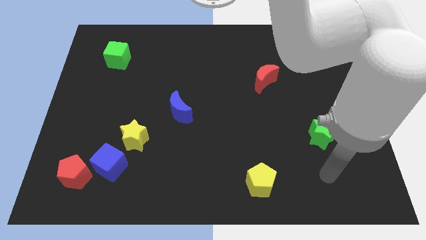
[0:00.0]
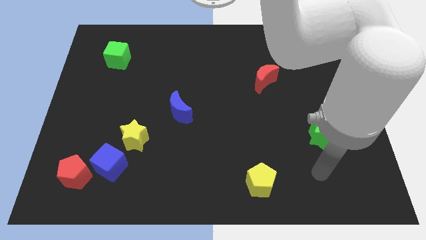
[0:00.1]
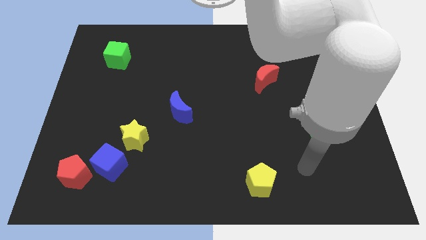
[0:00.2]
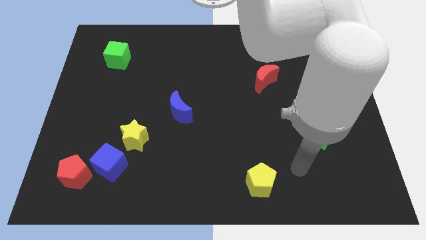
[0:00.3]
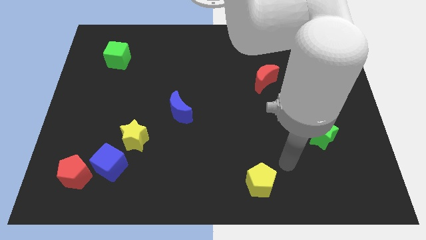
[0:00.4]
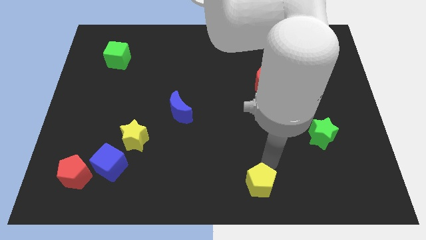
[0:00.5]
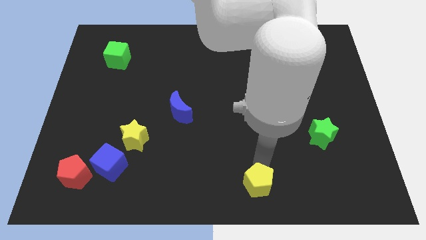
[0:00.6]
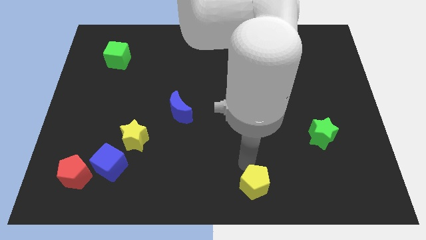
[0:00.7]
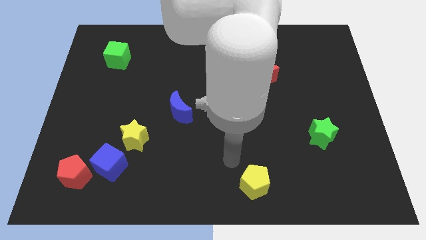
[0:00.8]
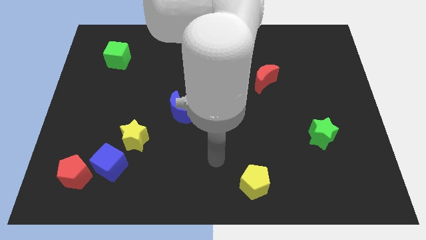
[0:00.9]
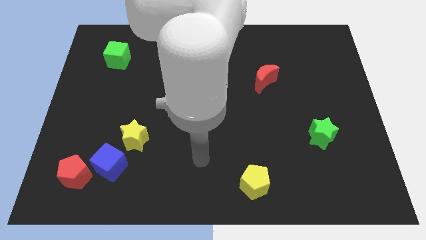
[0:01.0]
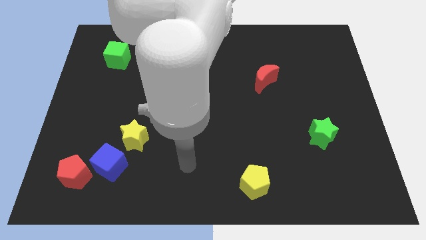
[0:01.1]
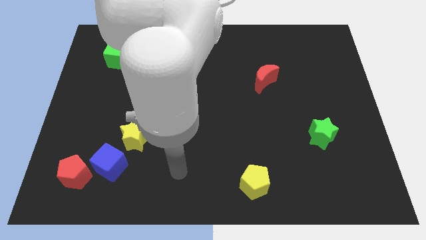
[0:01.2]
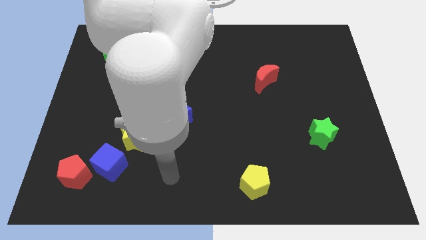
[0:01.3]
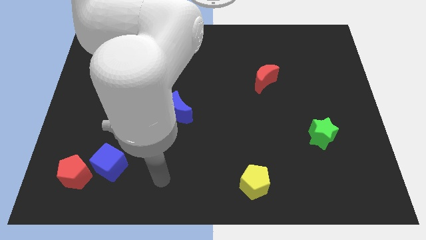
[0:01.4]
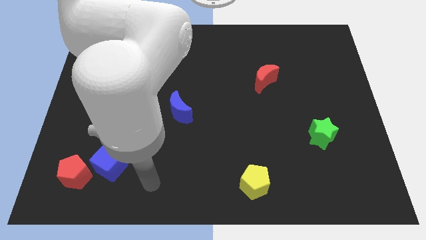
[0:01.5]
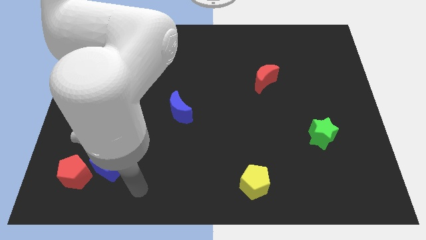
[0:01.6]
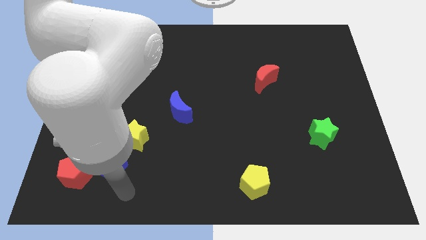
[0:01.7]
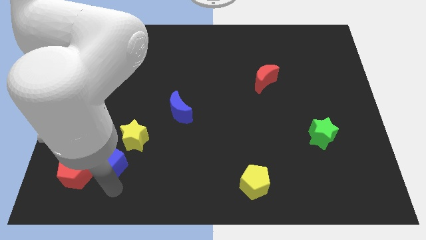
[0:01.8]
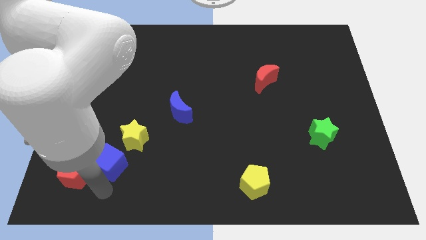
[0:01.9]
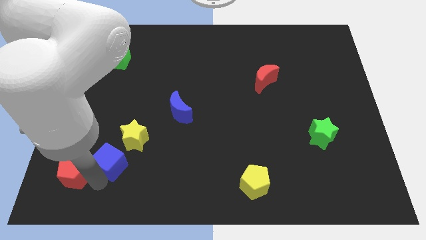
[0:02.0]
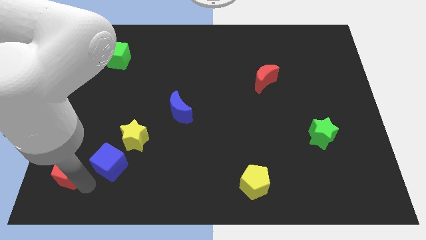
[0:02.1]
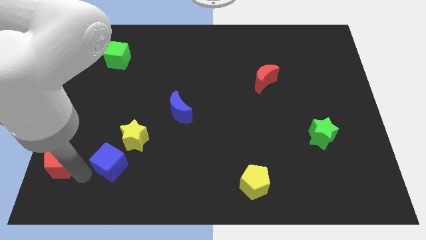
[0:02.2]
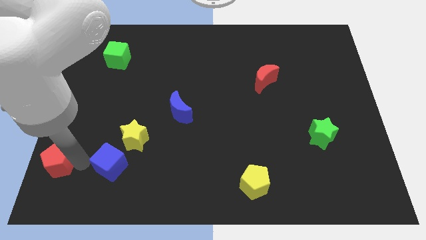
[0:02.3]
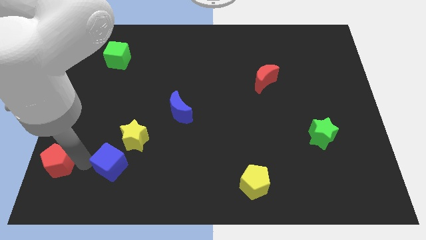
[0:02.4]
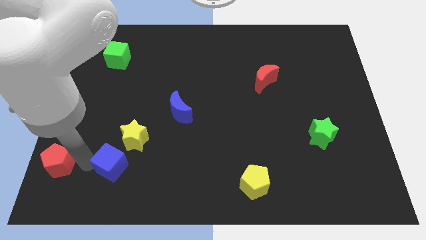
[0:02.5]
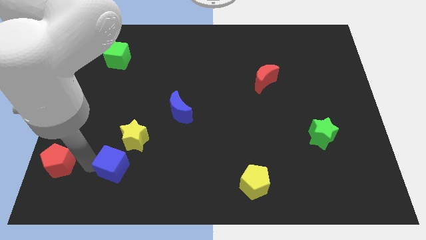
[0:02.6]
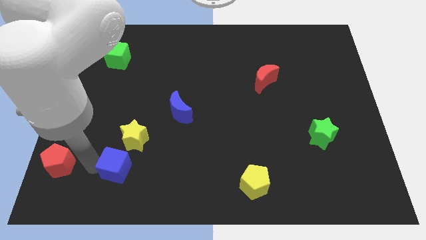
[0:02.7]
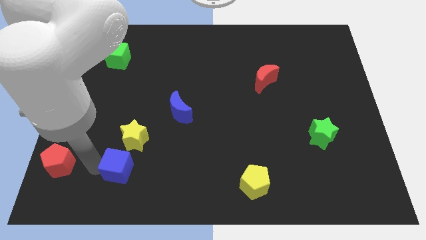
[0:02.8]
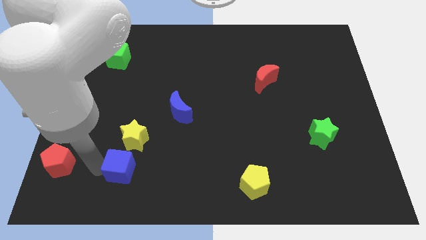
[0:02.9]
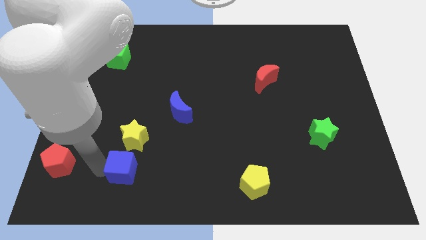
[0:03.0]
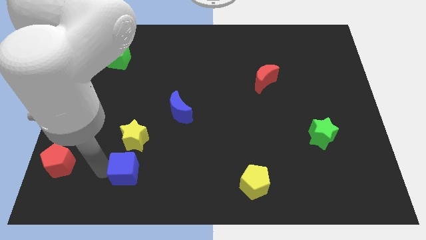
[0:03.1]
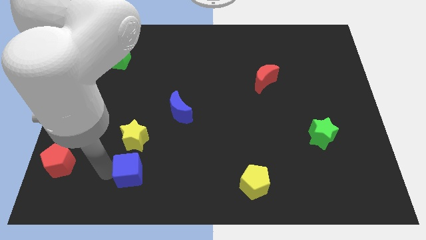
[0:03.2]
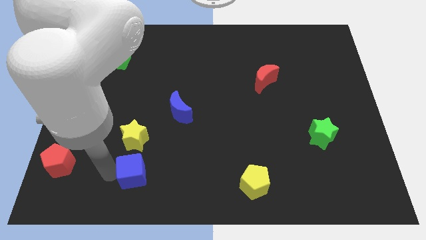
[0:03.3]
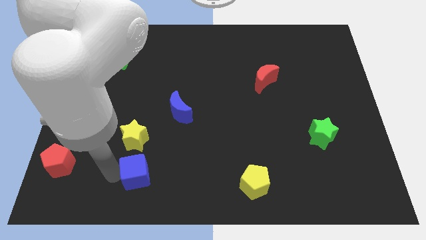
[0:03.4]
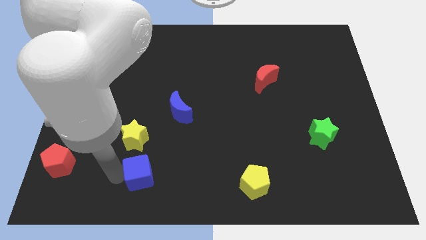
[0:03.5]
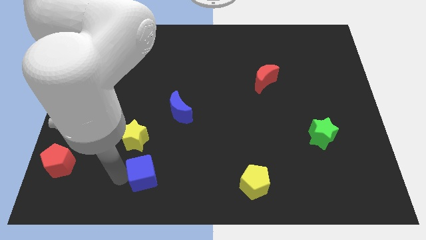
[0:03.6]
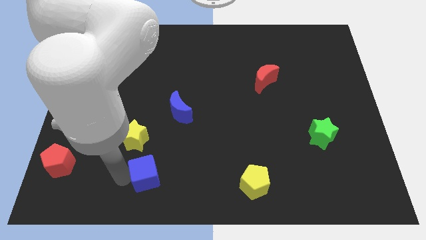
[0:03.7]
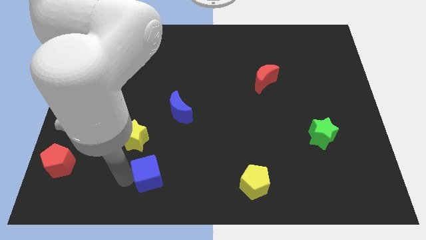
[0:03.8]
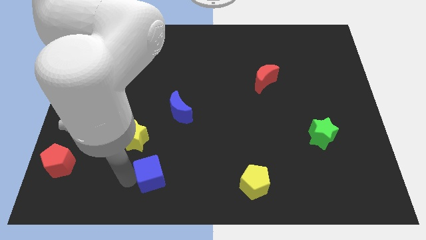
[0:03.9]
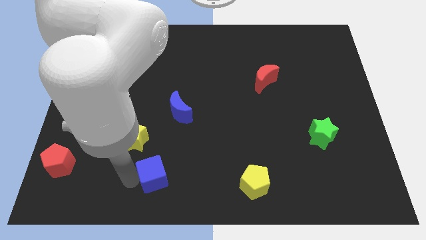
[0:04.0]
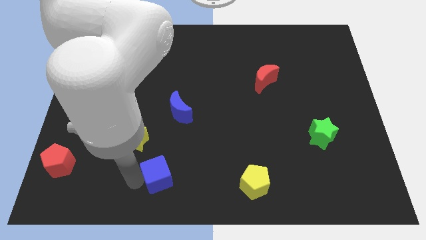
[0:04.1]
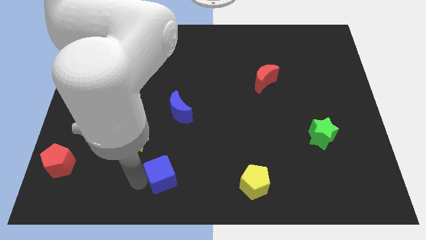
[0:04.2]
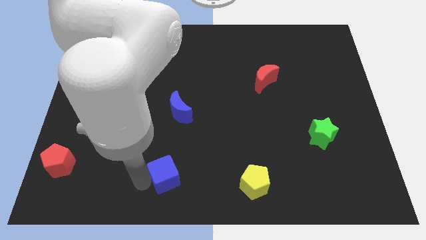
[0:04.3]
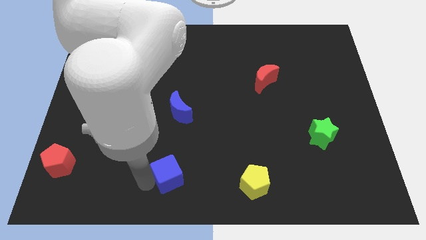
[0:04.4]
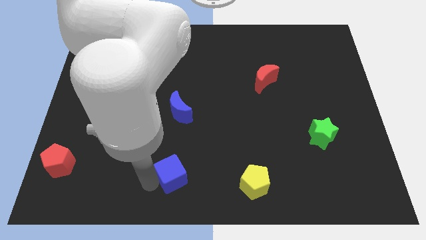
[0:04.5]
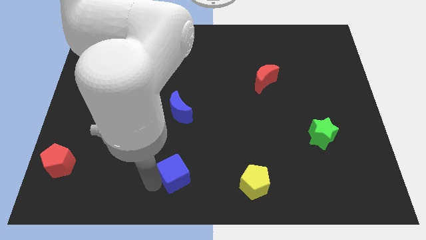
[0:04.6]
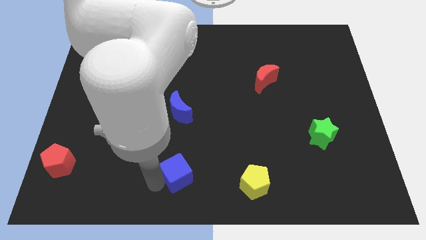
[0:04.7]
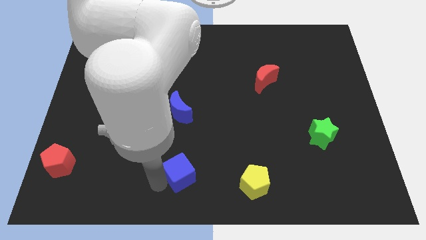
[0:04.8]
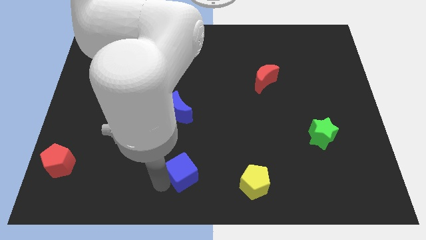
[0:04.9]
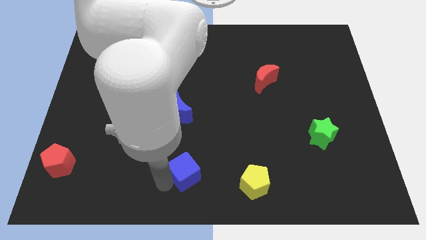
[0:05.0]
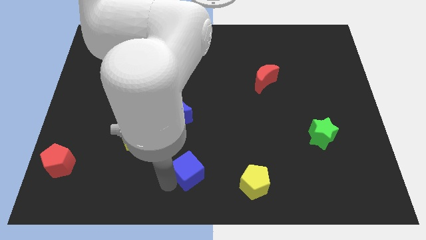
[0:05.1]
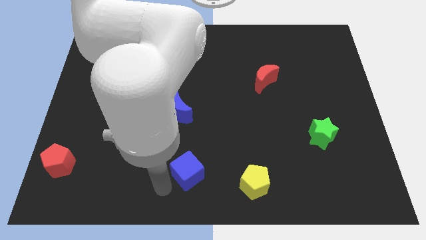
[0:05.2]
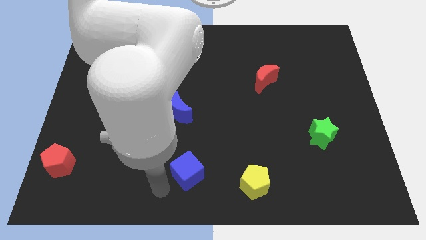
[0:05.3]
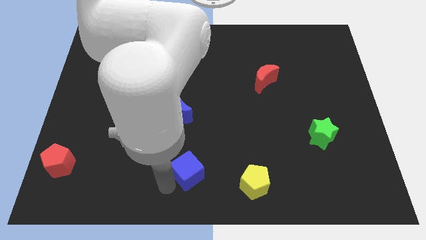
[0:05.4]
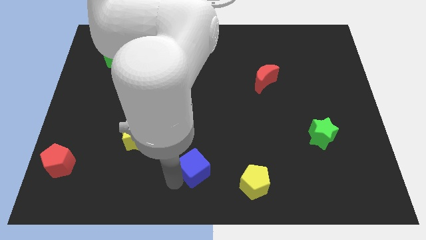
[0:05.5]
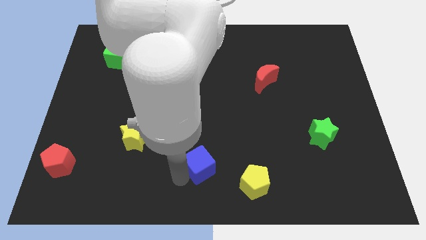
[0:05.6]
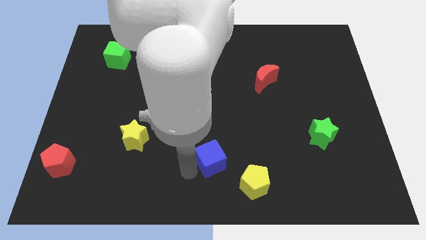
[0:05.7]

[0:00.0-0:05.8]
push the blue cube to the right

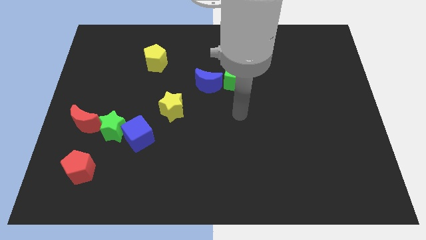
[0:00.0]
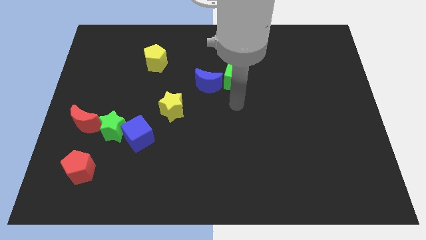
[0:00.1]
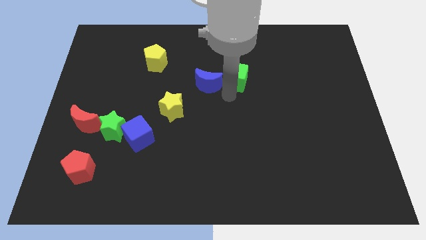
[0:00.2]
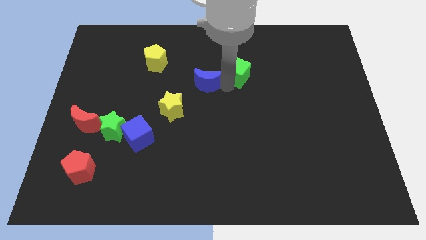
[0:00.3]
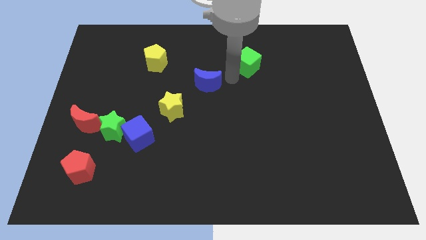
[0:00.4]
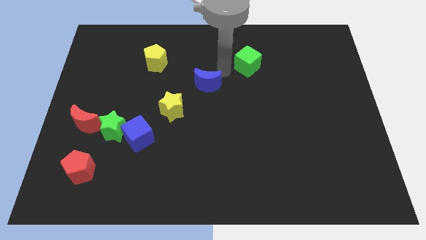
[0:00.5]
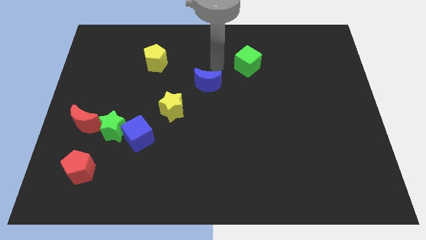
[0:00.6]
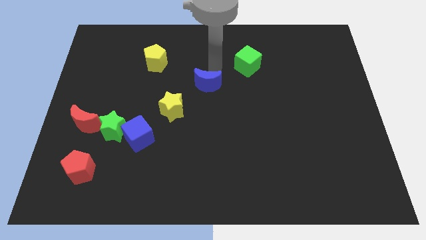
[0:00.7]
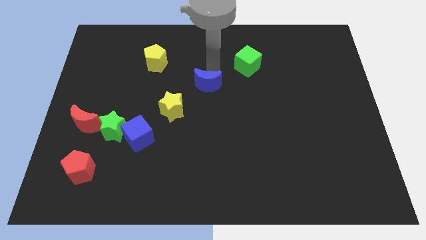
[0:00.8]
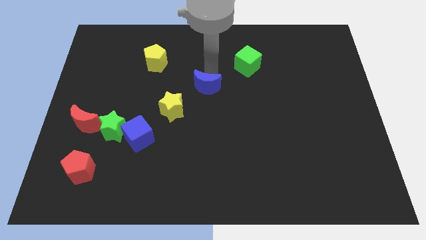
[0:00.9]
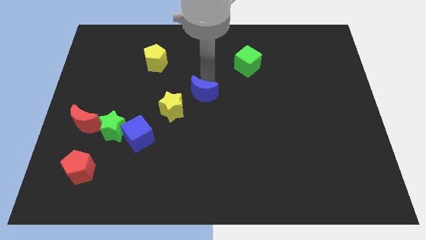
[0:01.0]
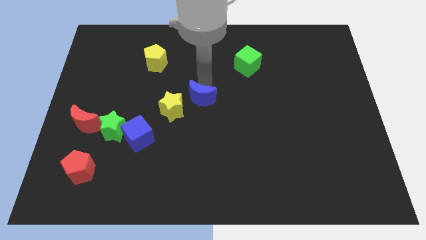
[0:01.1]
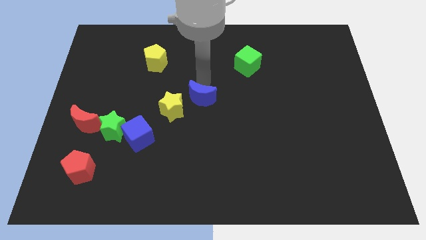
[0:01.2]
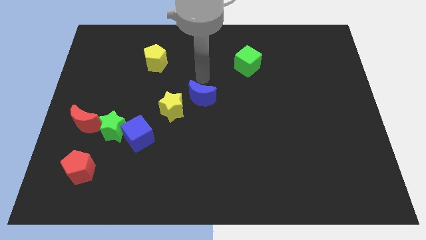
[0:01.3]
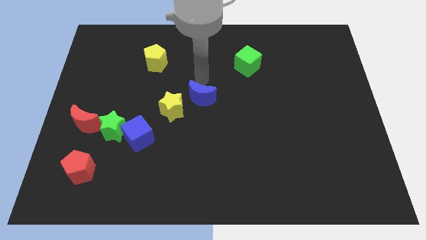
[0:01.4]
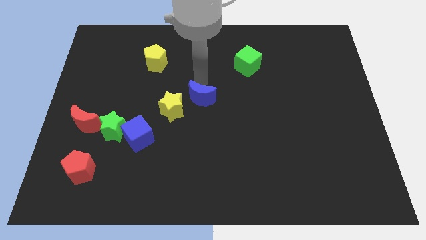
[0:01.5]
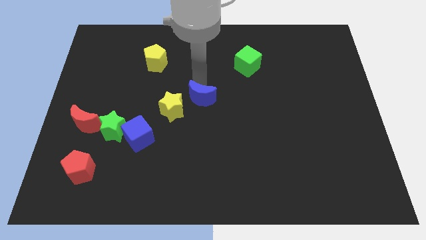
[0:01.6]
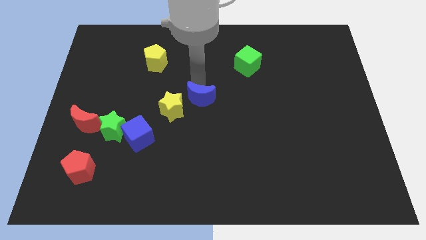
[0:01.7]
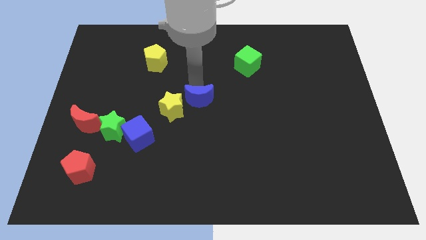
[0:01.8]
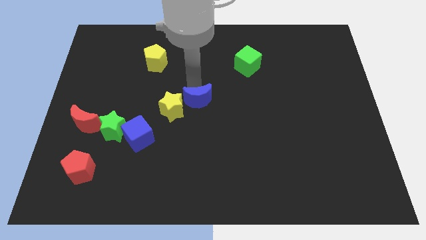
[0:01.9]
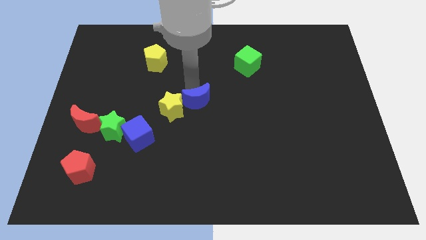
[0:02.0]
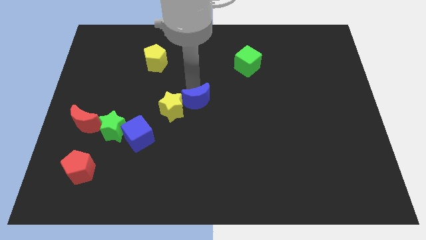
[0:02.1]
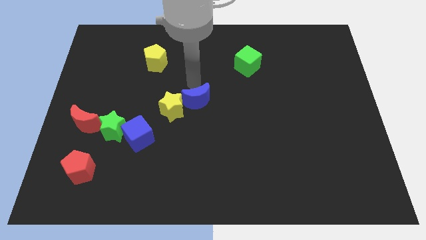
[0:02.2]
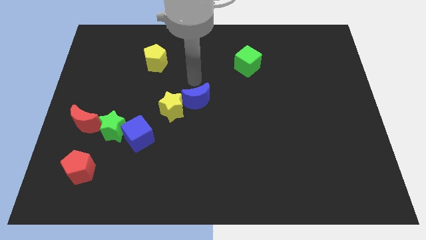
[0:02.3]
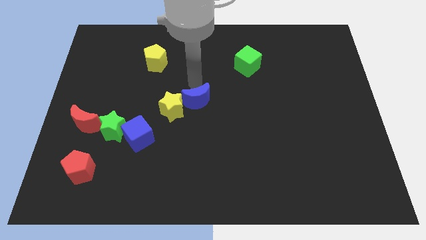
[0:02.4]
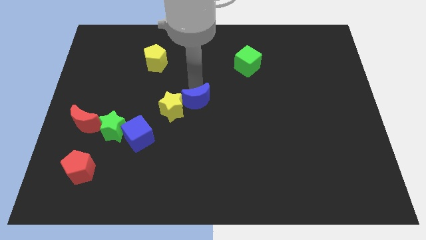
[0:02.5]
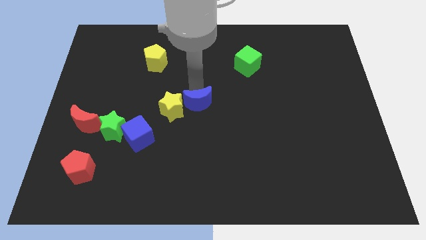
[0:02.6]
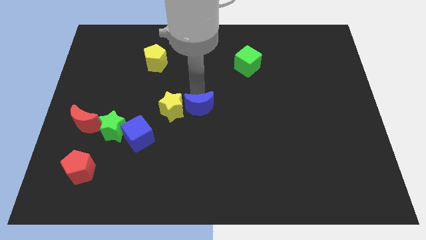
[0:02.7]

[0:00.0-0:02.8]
slightly push the blue moon down
